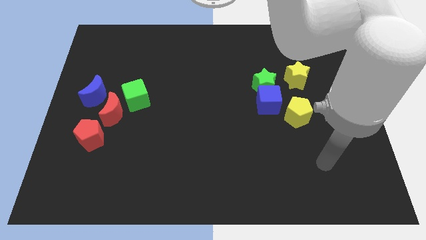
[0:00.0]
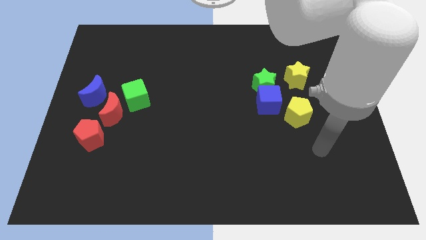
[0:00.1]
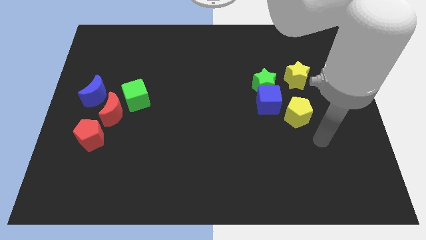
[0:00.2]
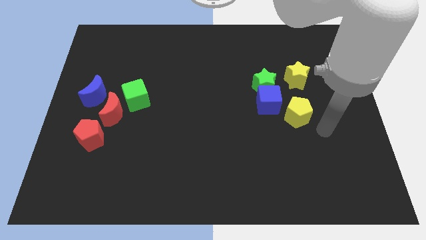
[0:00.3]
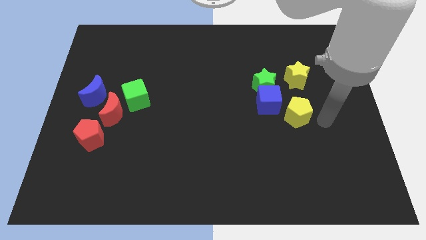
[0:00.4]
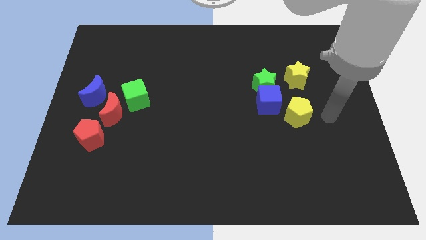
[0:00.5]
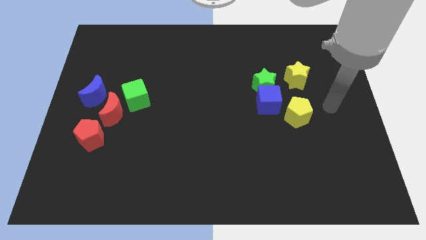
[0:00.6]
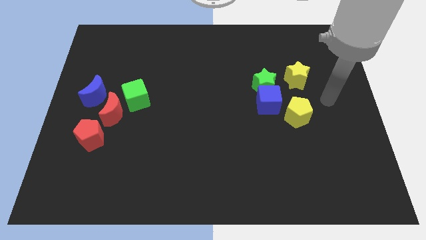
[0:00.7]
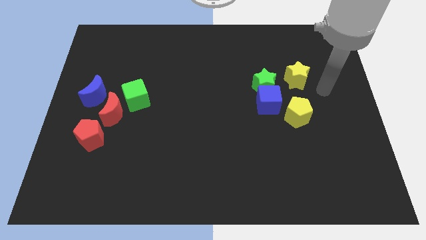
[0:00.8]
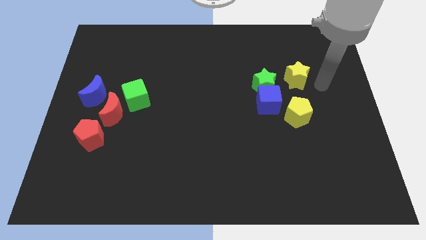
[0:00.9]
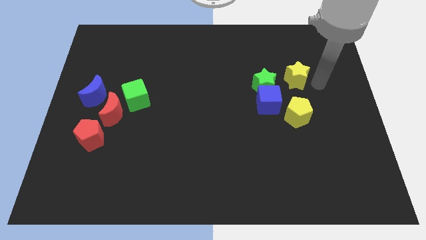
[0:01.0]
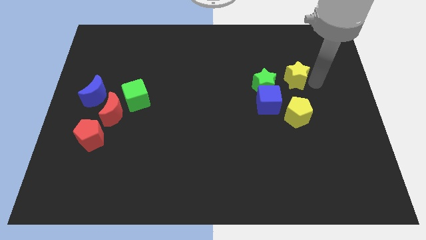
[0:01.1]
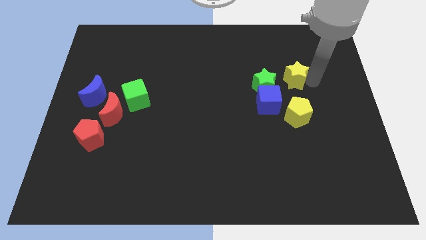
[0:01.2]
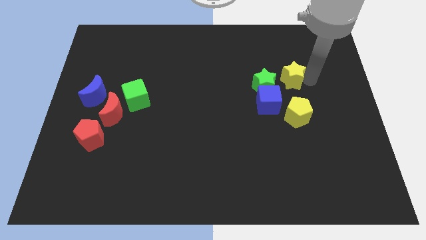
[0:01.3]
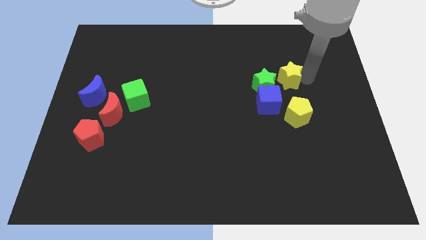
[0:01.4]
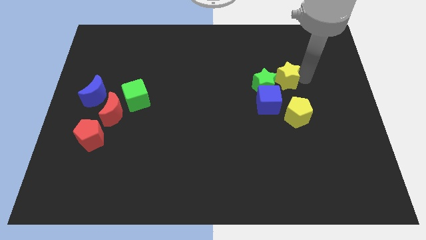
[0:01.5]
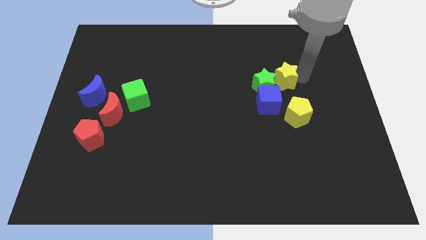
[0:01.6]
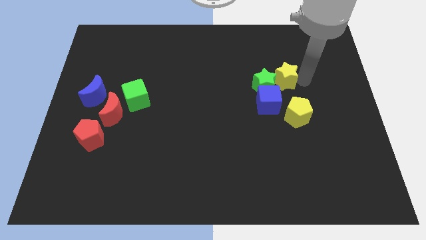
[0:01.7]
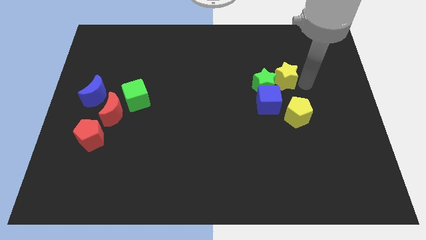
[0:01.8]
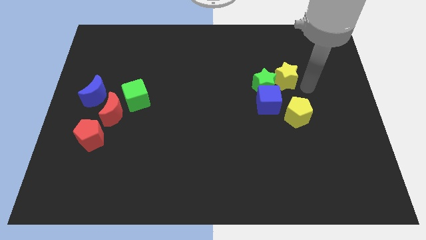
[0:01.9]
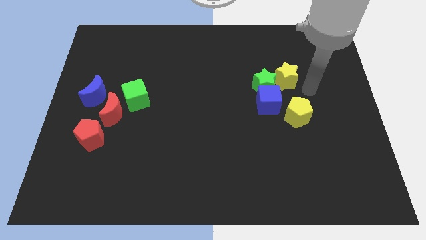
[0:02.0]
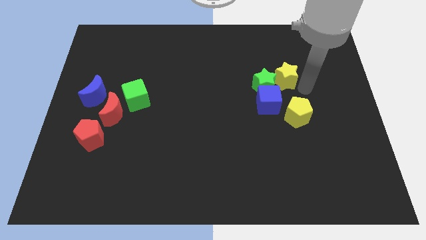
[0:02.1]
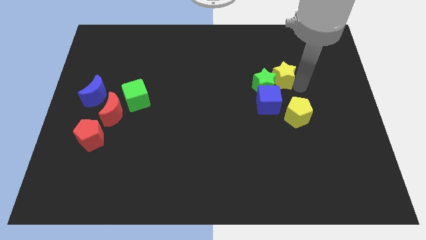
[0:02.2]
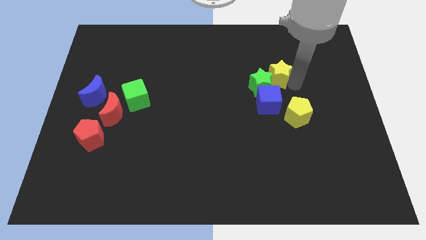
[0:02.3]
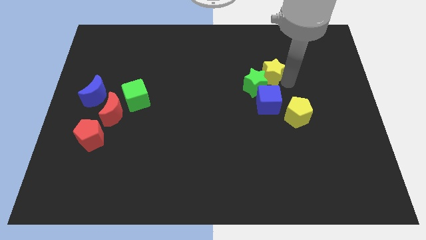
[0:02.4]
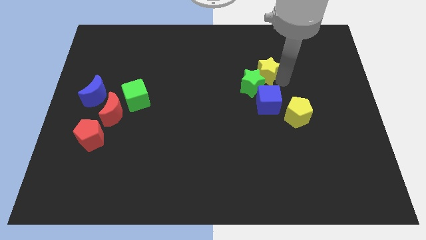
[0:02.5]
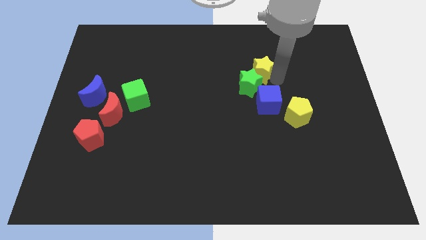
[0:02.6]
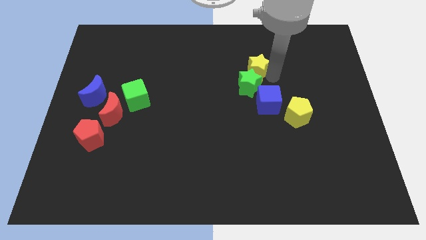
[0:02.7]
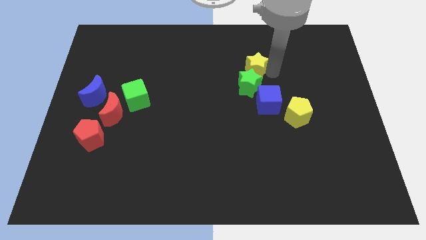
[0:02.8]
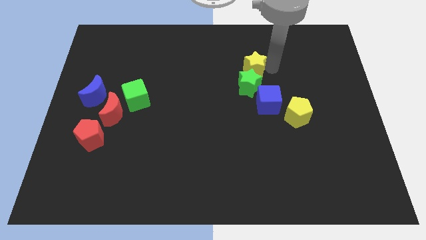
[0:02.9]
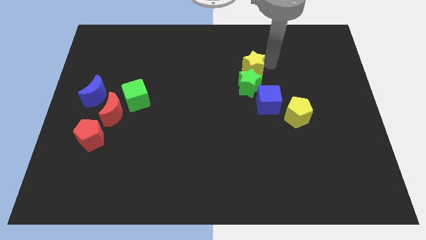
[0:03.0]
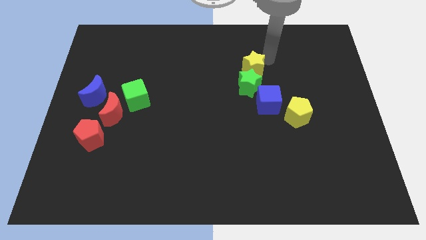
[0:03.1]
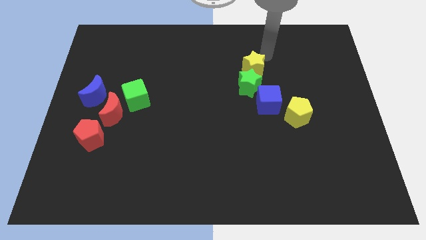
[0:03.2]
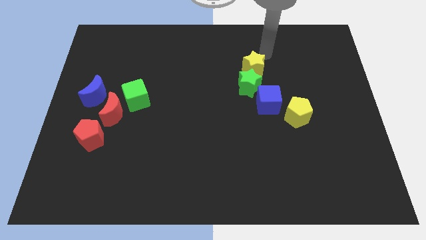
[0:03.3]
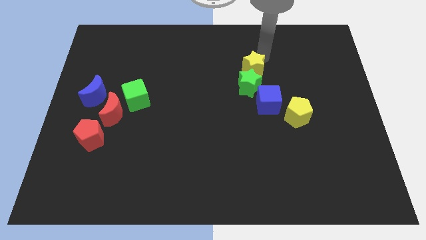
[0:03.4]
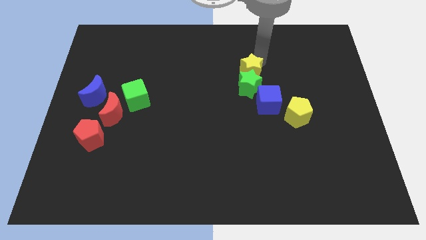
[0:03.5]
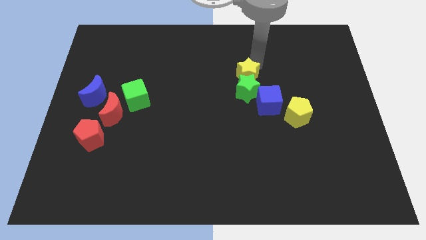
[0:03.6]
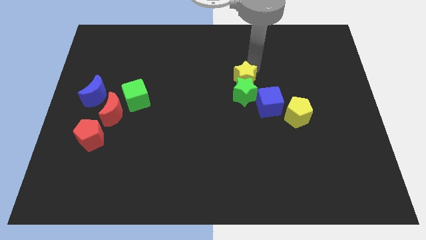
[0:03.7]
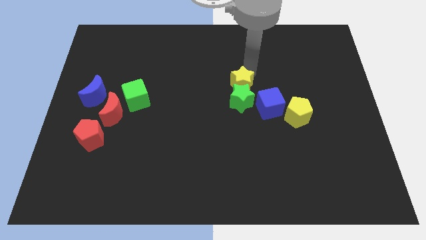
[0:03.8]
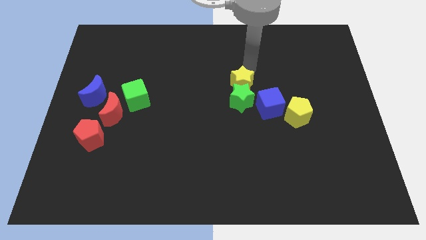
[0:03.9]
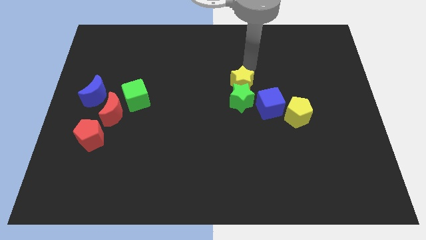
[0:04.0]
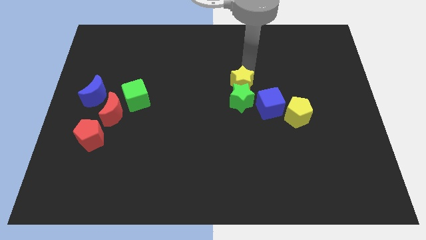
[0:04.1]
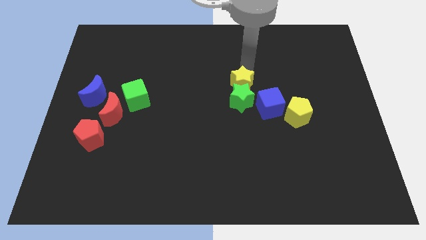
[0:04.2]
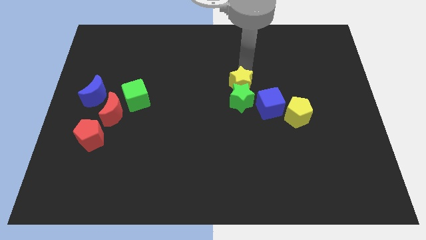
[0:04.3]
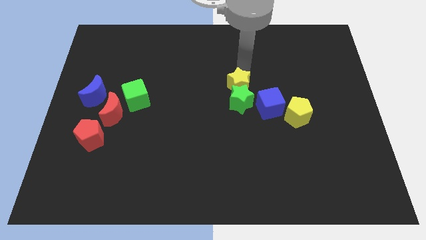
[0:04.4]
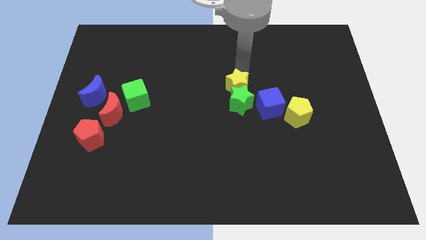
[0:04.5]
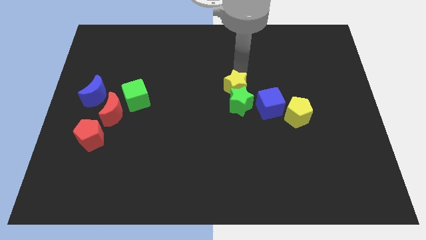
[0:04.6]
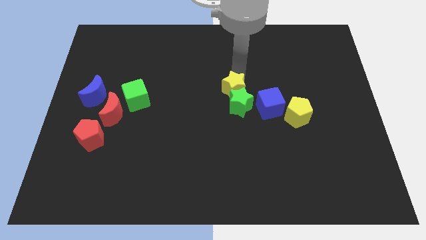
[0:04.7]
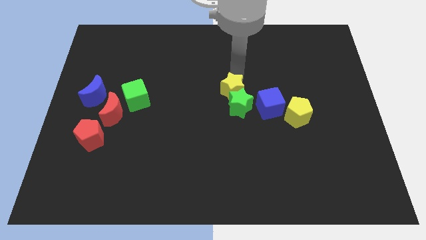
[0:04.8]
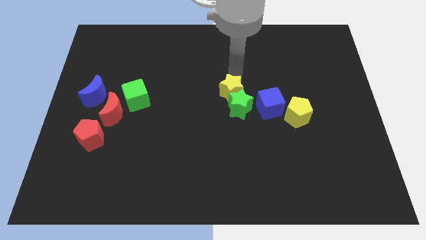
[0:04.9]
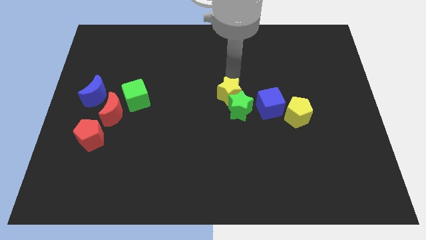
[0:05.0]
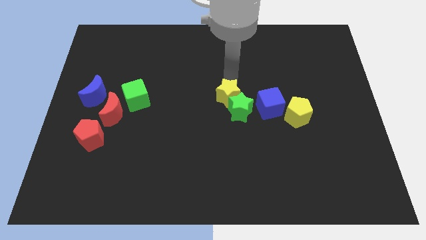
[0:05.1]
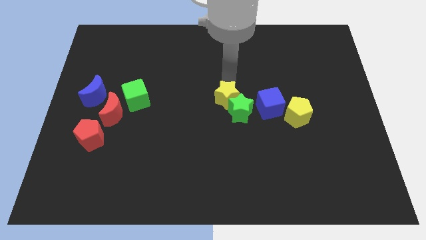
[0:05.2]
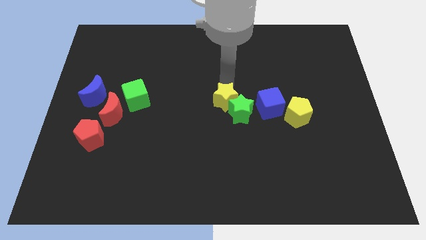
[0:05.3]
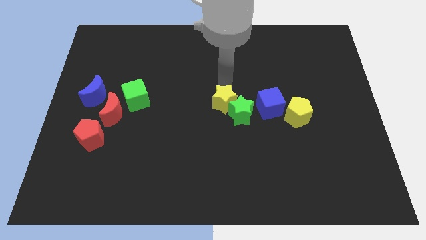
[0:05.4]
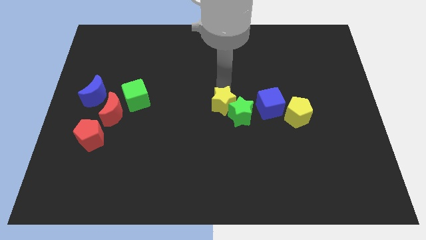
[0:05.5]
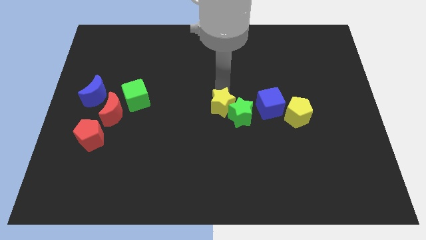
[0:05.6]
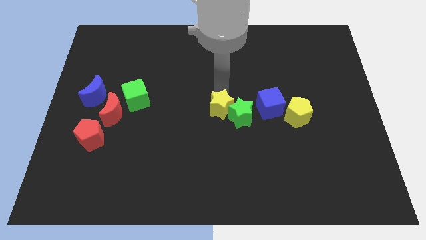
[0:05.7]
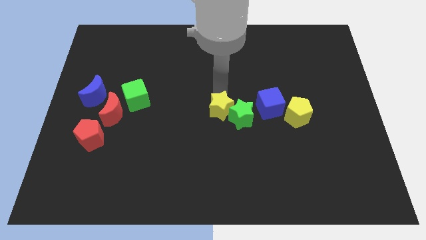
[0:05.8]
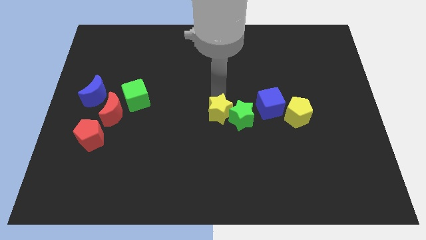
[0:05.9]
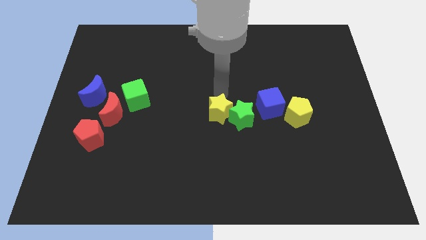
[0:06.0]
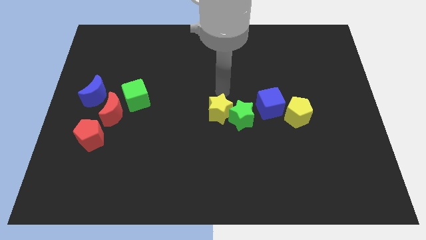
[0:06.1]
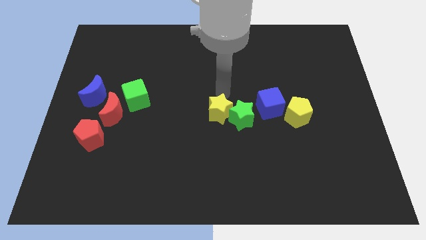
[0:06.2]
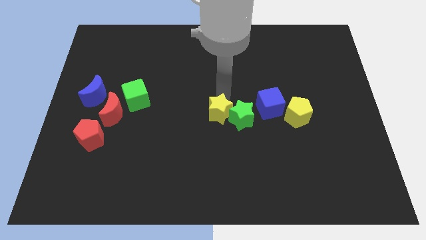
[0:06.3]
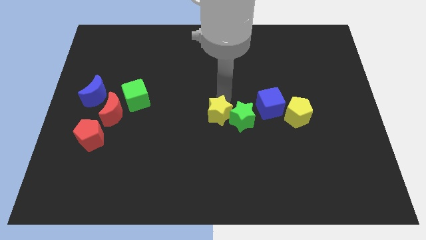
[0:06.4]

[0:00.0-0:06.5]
slide the yellow star down and then left

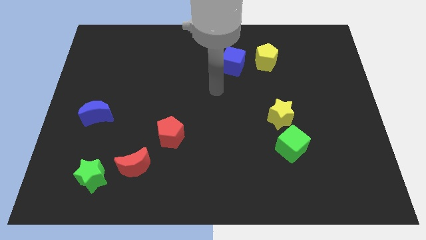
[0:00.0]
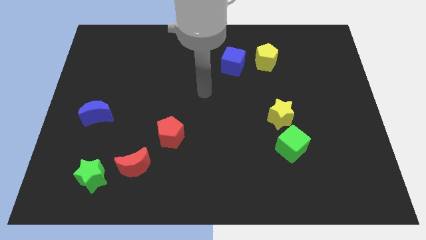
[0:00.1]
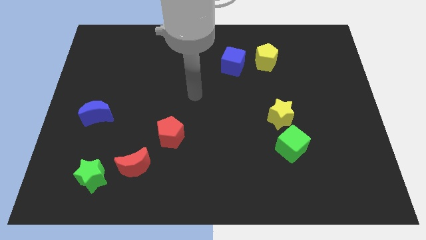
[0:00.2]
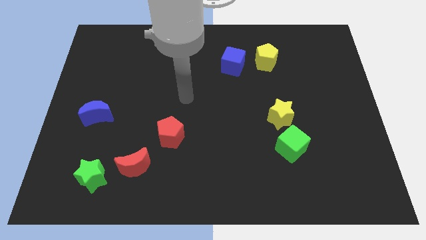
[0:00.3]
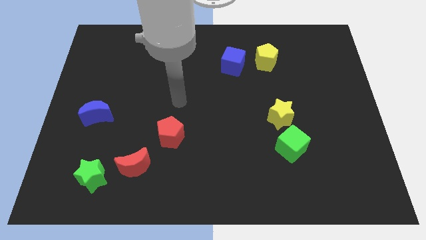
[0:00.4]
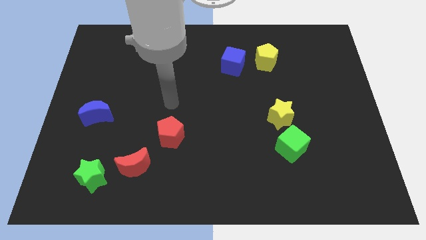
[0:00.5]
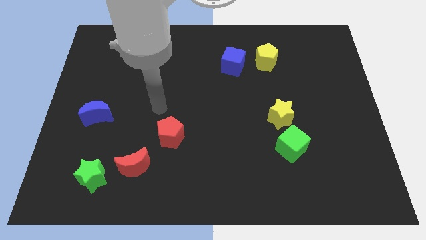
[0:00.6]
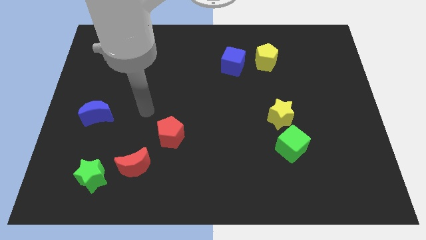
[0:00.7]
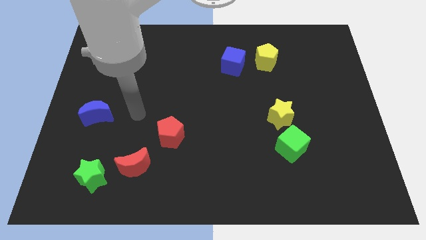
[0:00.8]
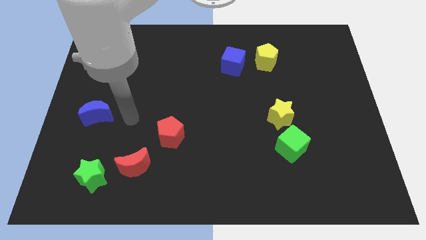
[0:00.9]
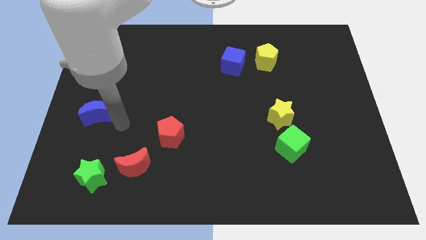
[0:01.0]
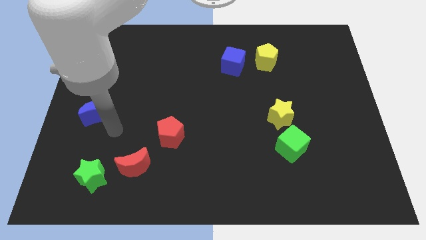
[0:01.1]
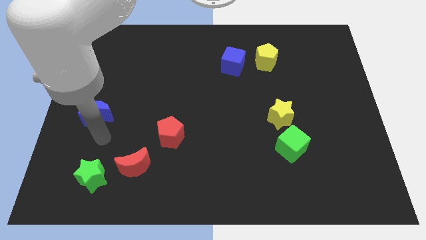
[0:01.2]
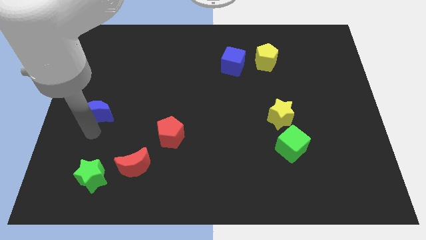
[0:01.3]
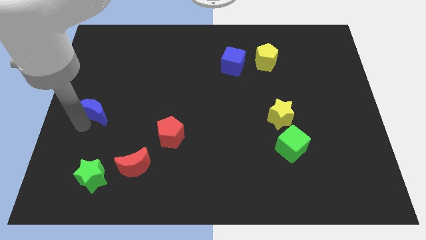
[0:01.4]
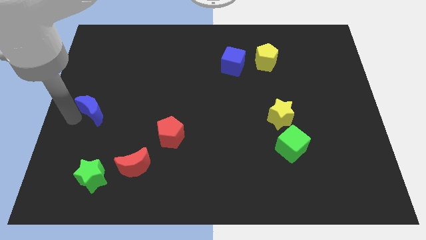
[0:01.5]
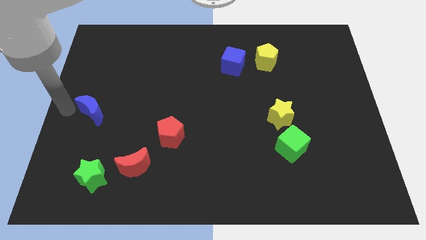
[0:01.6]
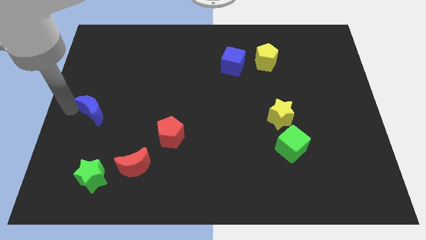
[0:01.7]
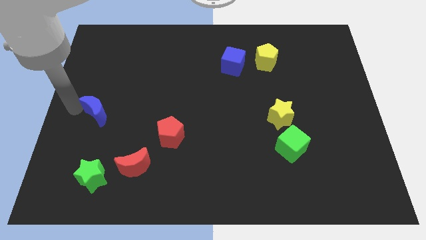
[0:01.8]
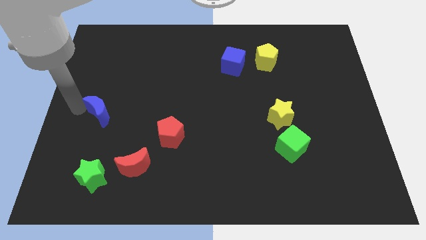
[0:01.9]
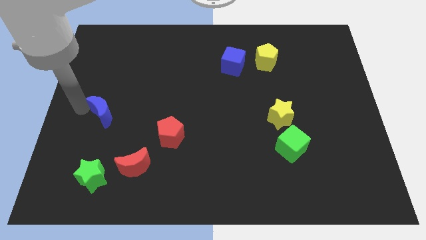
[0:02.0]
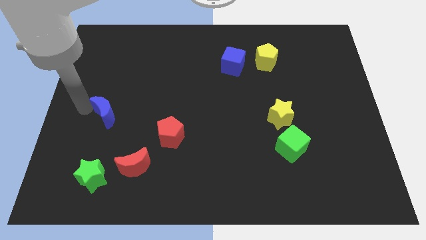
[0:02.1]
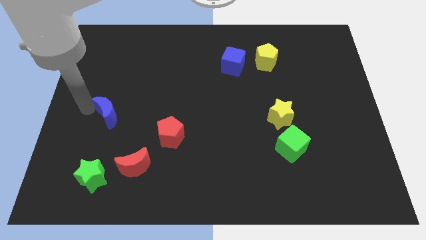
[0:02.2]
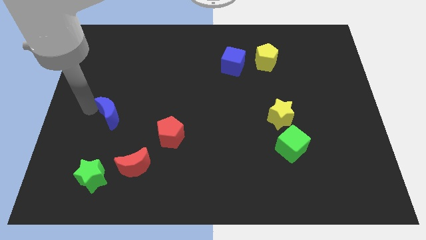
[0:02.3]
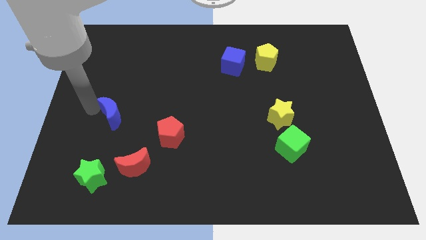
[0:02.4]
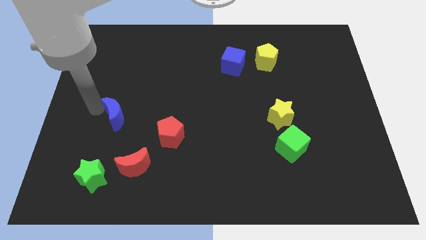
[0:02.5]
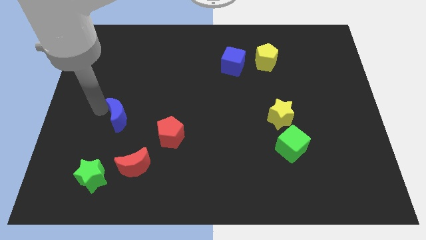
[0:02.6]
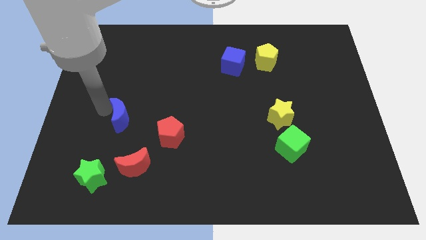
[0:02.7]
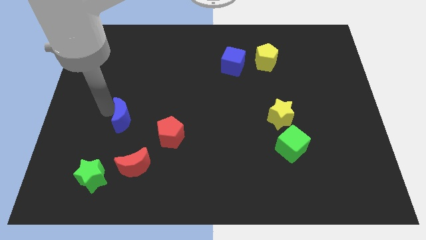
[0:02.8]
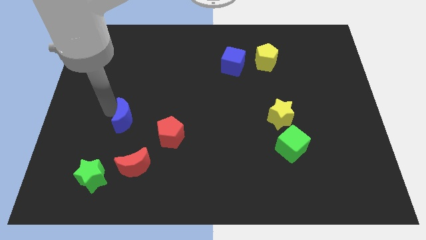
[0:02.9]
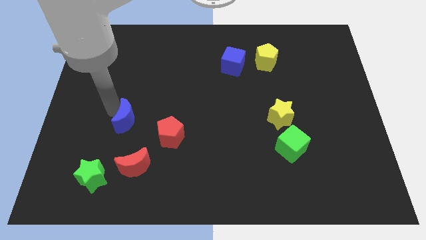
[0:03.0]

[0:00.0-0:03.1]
slide the blue moon a little right
